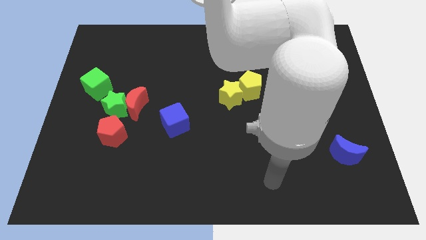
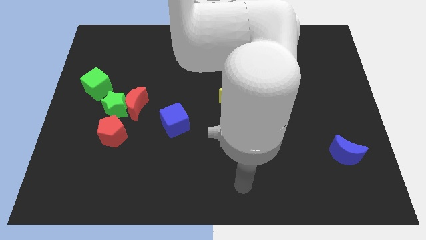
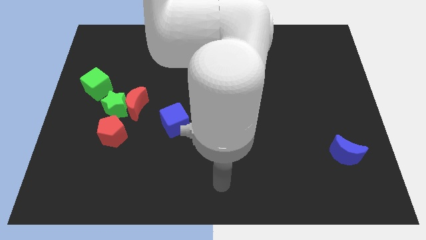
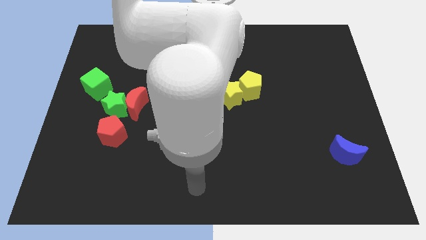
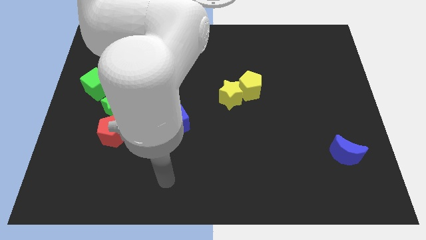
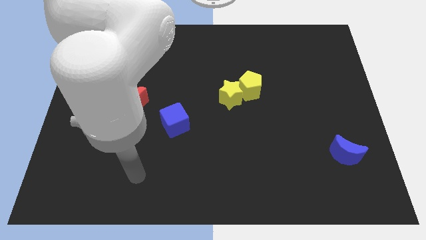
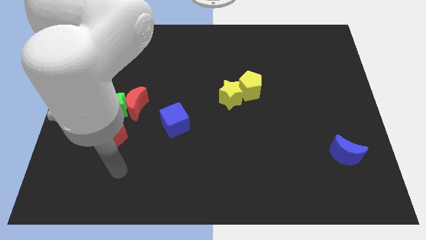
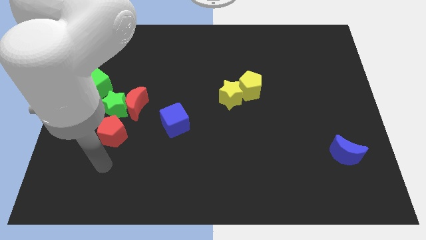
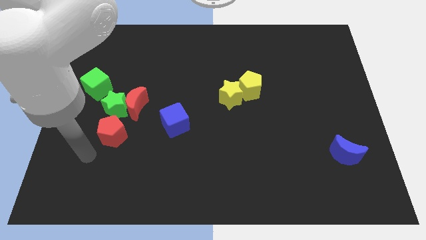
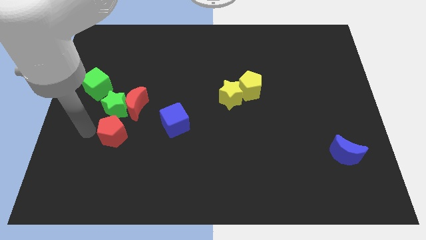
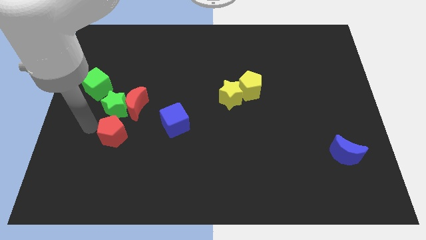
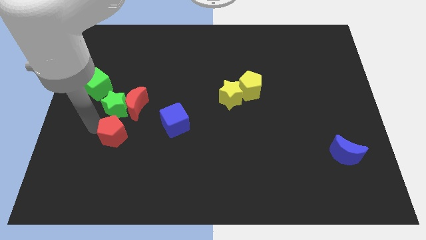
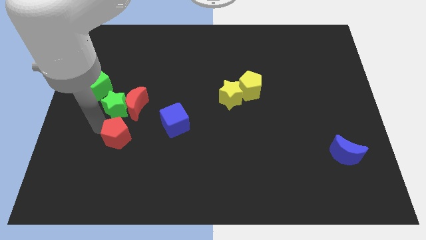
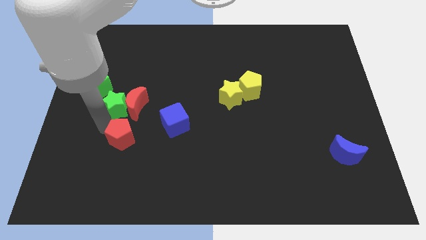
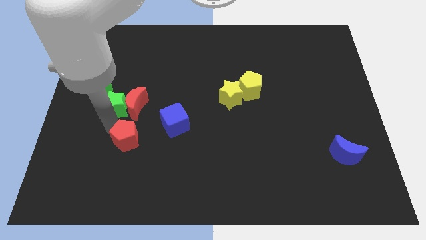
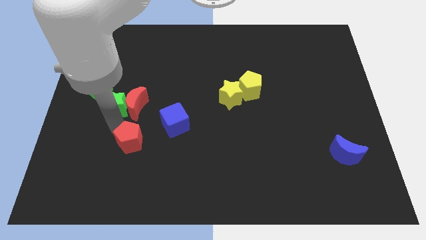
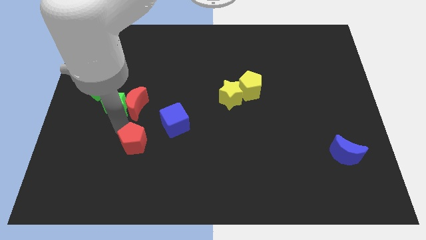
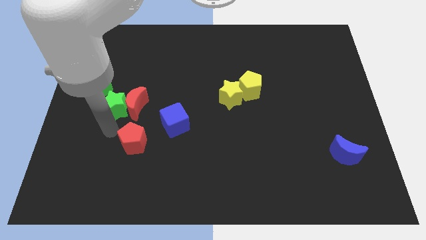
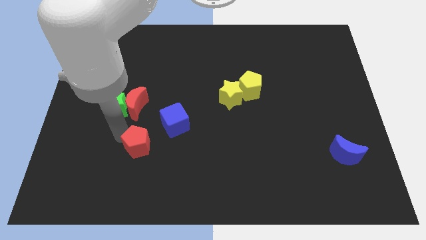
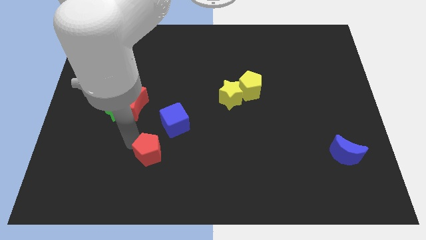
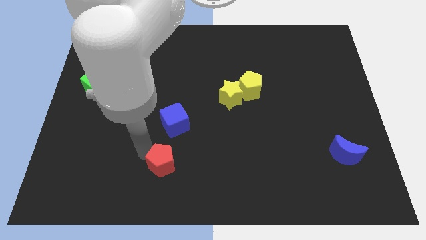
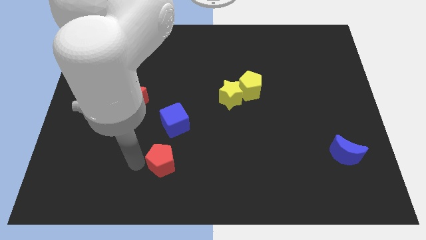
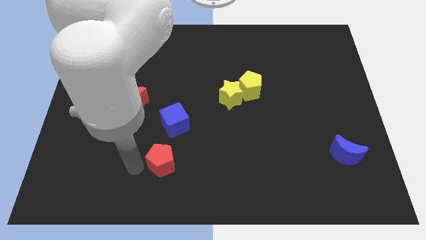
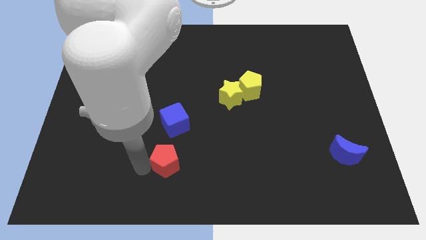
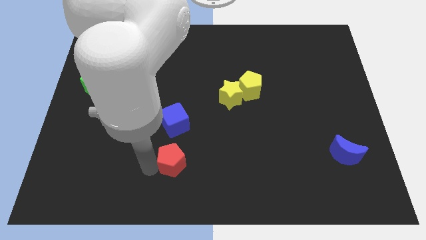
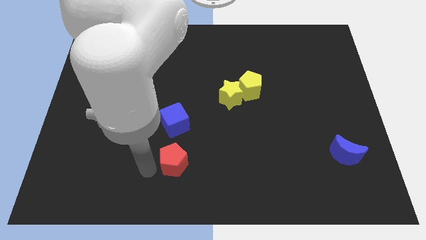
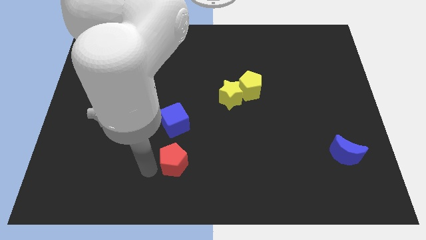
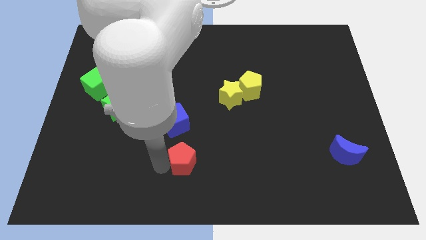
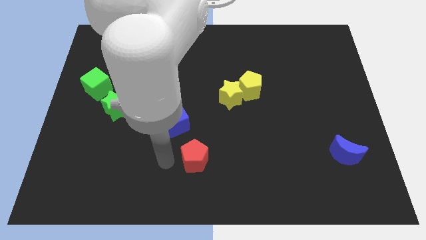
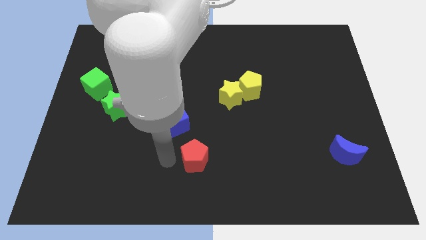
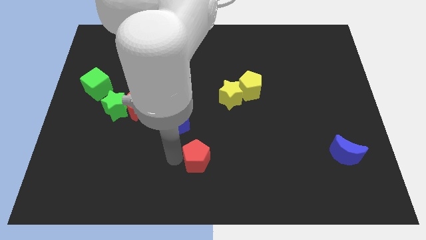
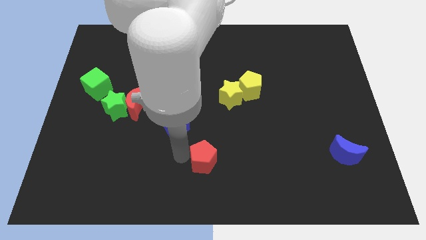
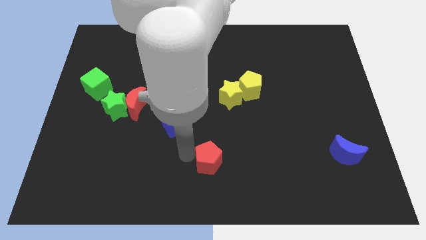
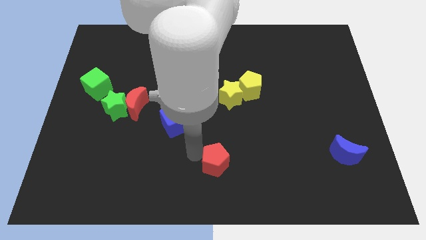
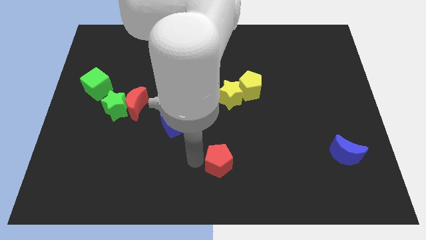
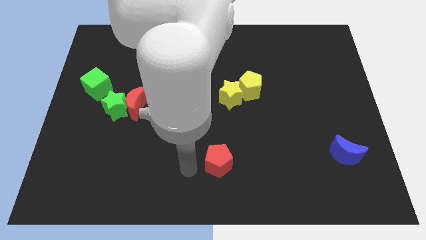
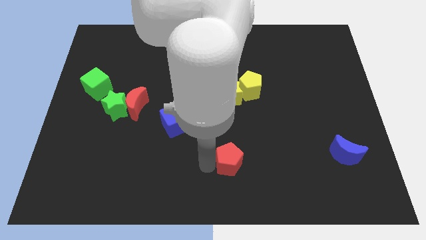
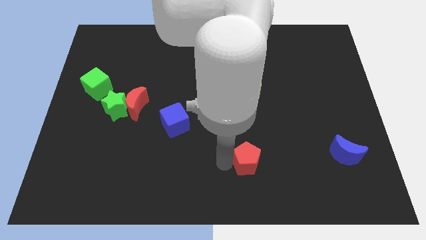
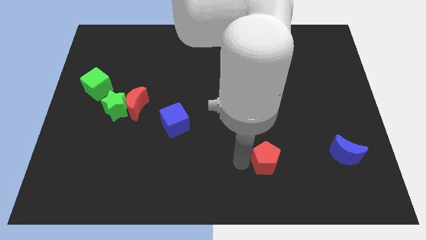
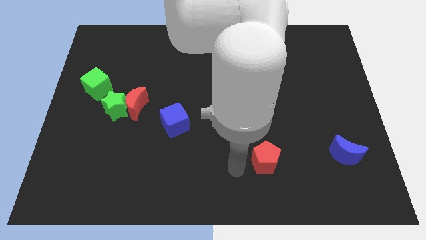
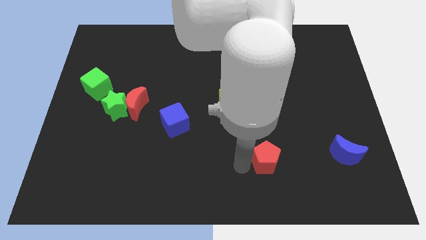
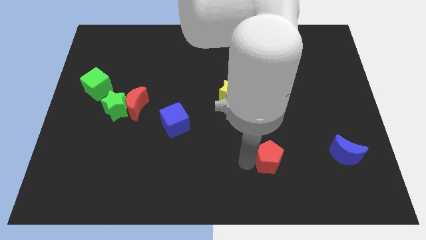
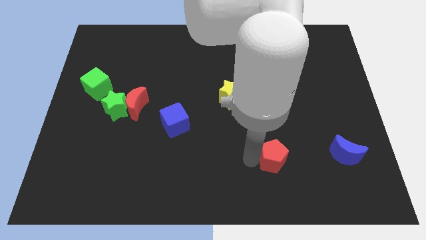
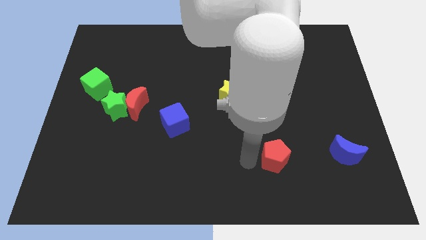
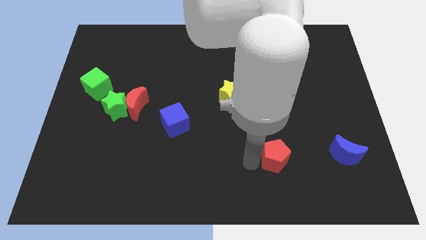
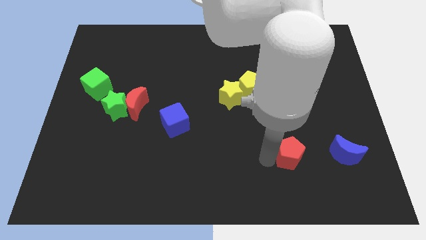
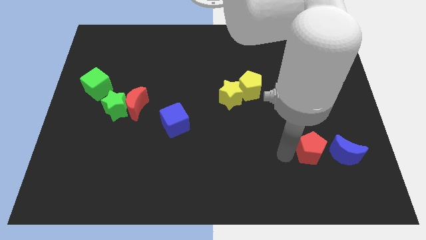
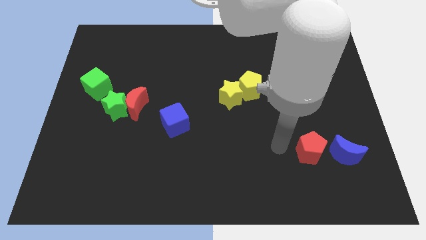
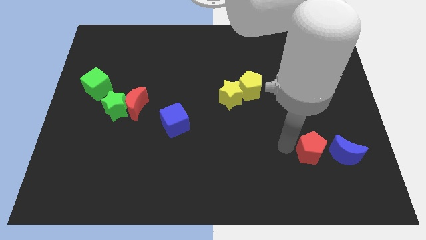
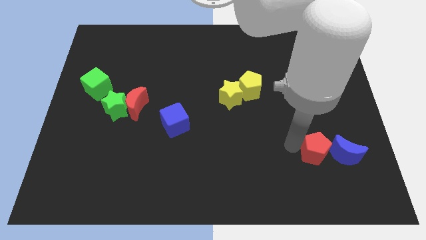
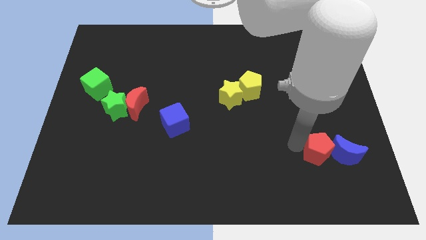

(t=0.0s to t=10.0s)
slide the red pentagon next to the blue moon

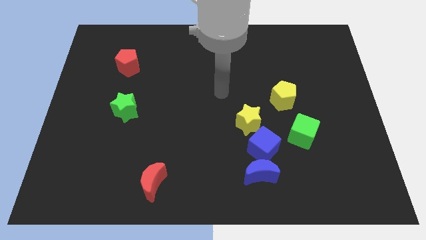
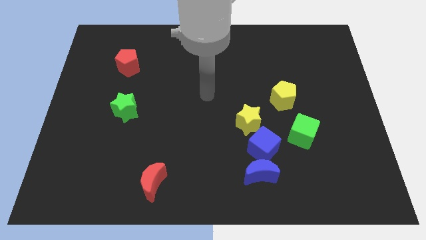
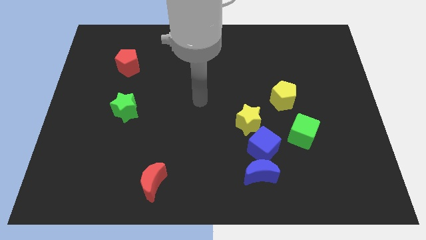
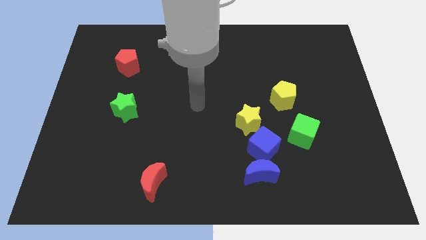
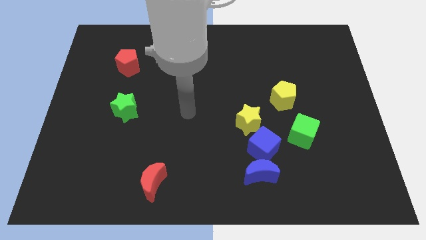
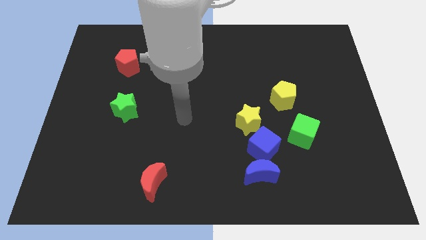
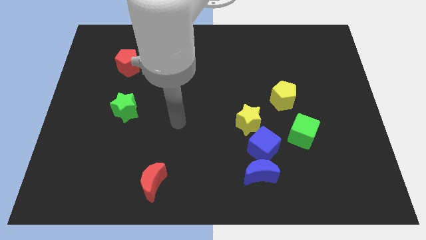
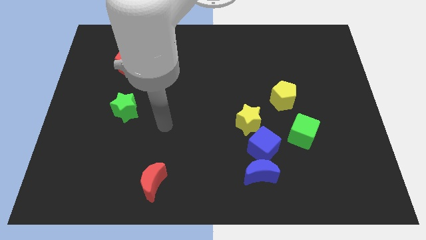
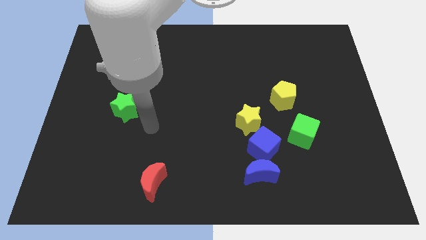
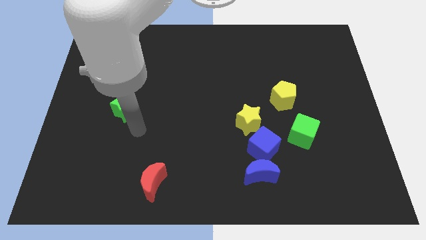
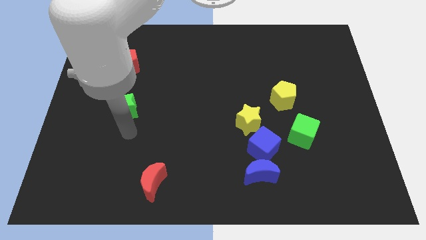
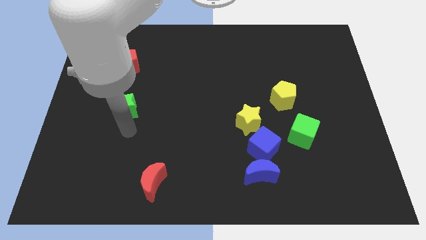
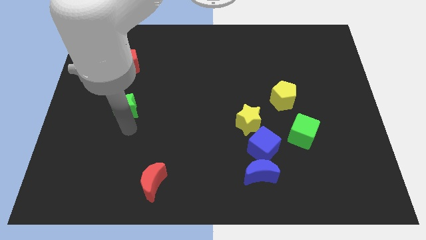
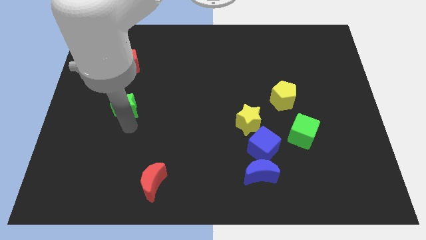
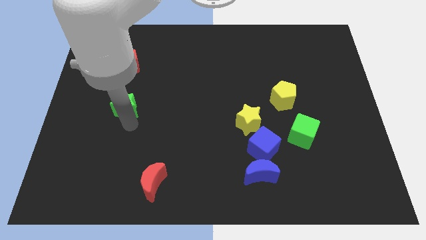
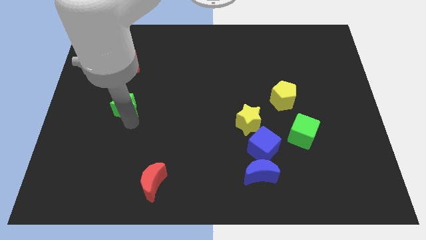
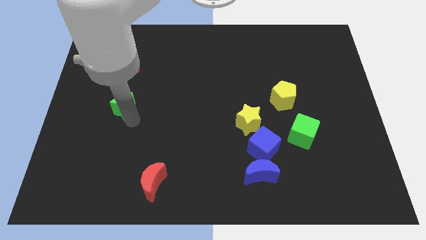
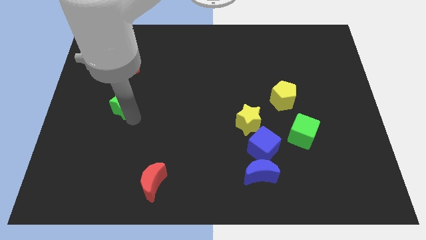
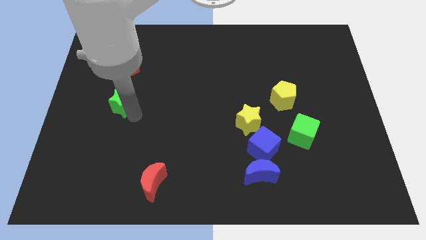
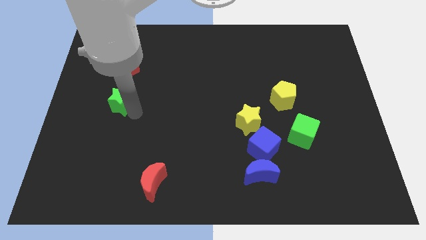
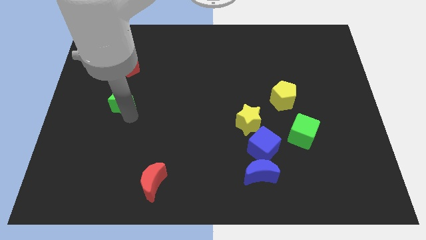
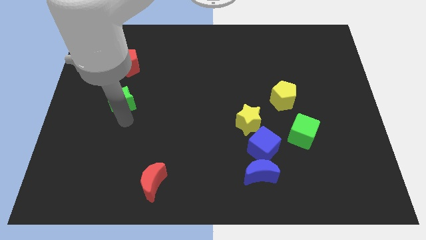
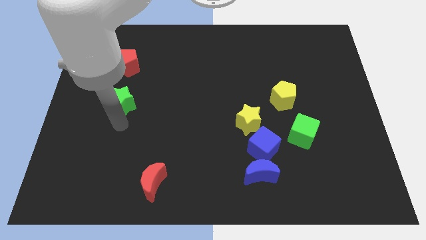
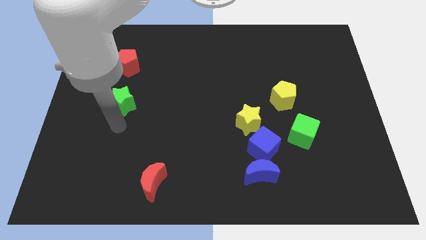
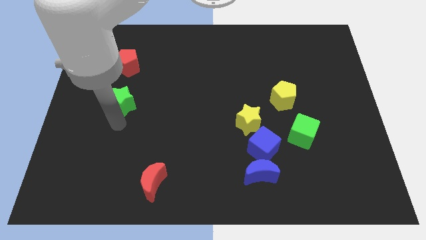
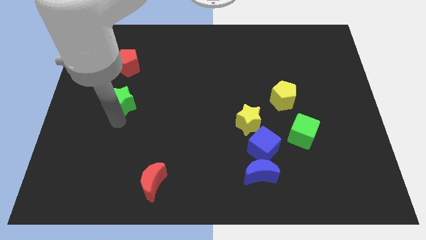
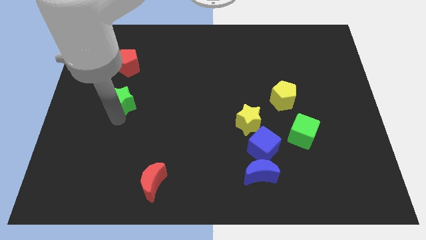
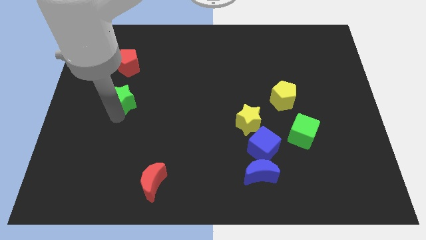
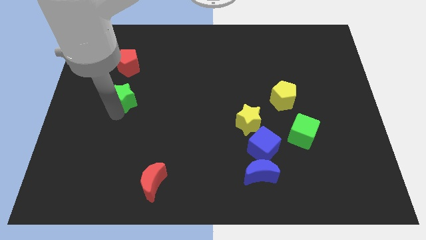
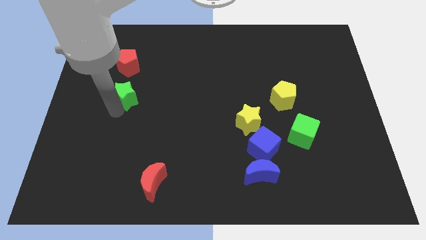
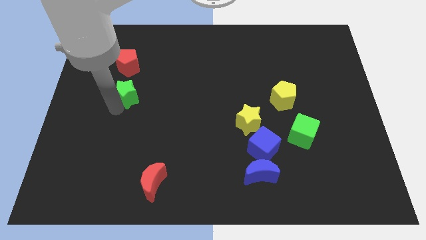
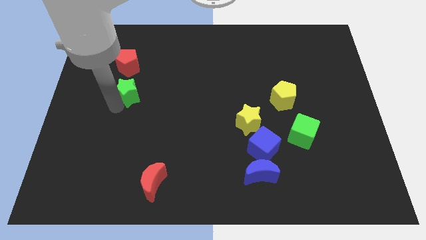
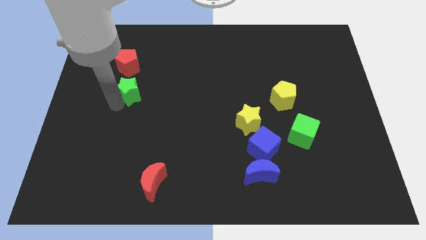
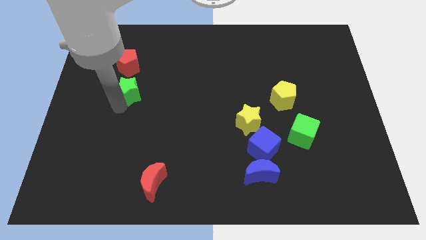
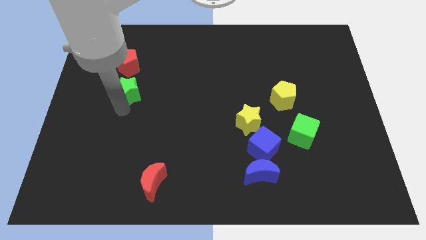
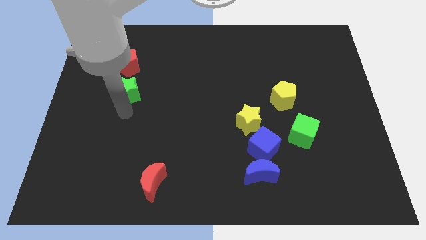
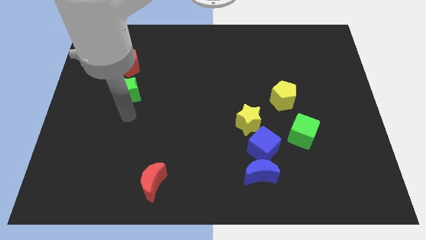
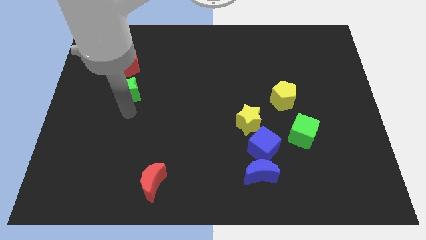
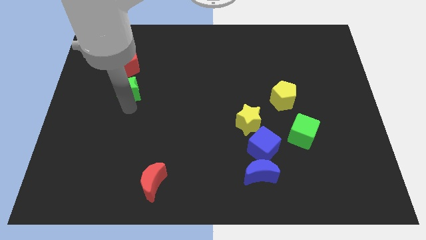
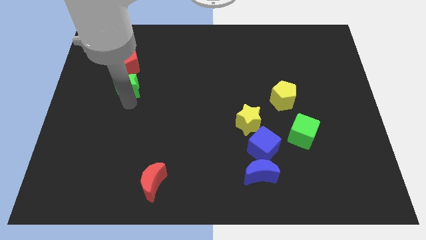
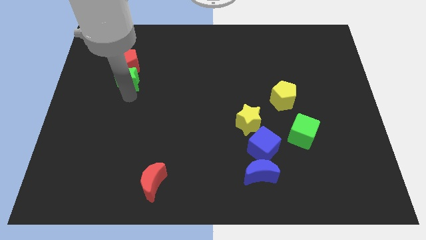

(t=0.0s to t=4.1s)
push the green star next to the red pentagon
